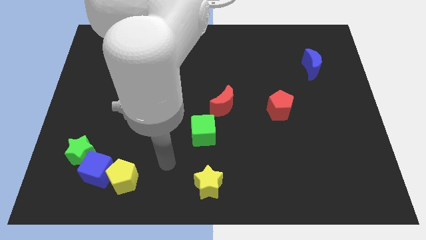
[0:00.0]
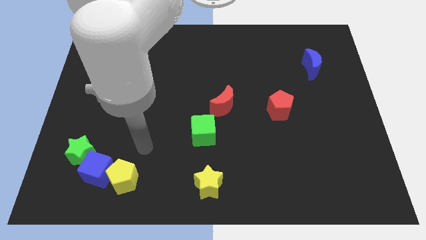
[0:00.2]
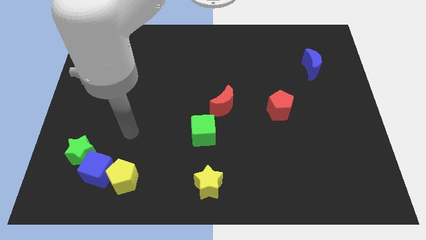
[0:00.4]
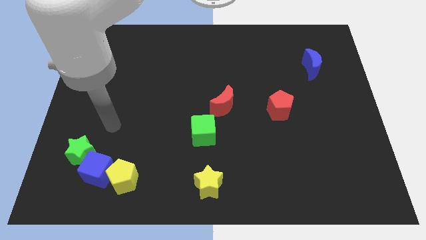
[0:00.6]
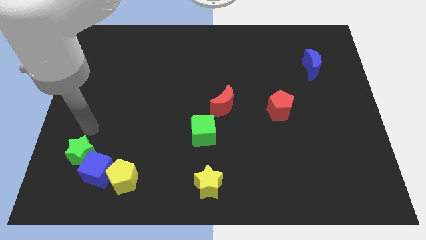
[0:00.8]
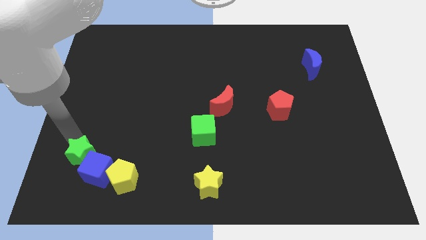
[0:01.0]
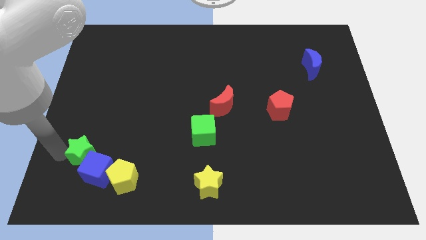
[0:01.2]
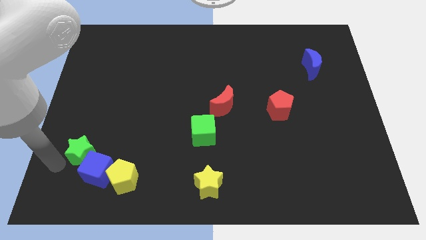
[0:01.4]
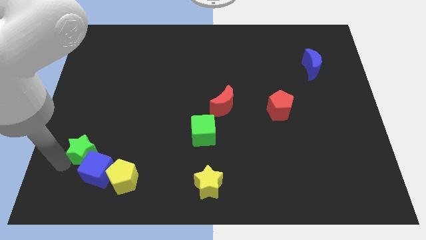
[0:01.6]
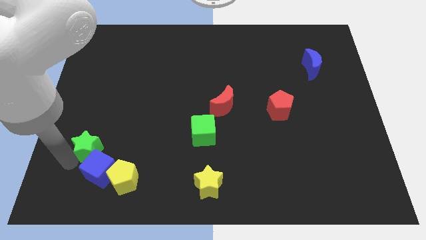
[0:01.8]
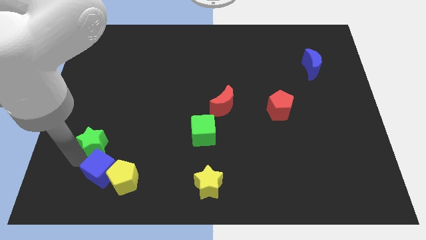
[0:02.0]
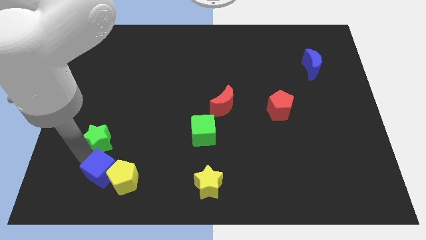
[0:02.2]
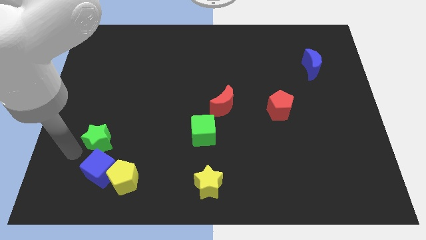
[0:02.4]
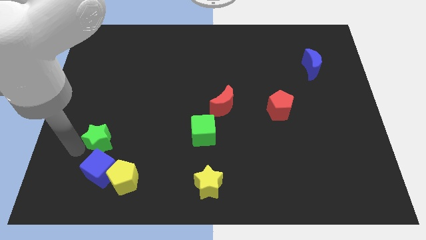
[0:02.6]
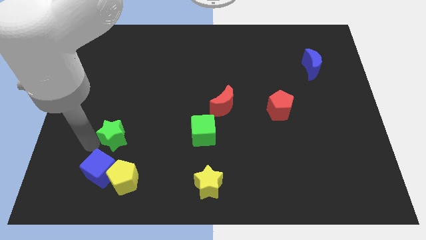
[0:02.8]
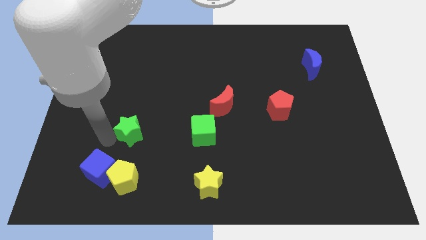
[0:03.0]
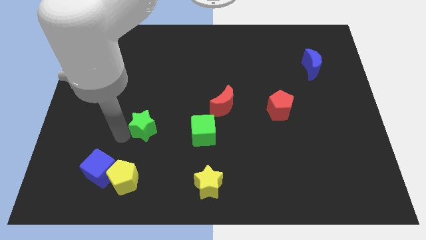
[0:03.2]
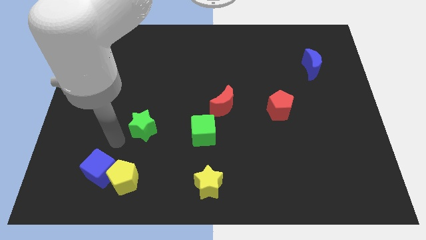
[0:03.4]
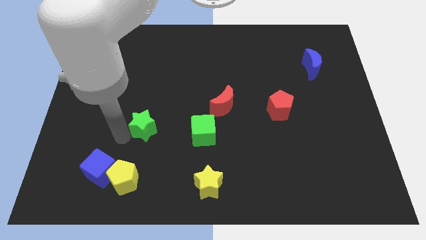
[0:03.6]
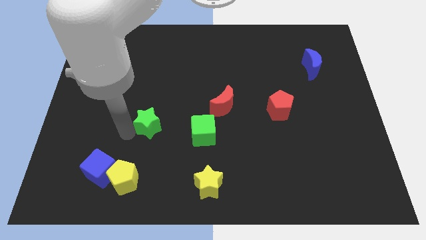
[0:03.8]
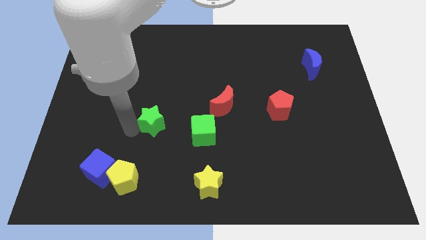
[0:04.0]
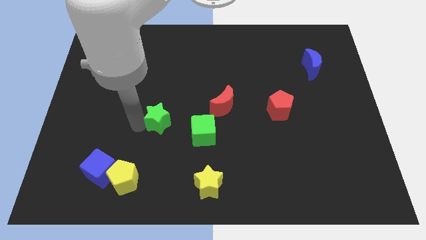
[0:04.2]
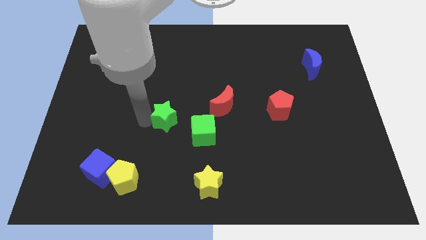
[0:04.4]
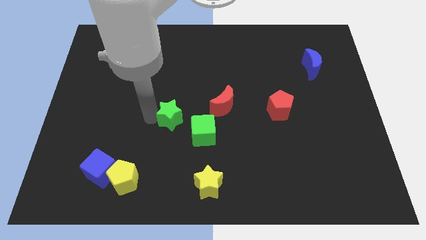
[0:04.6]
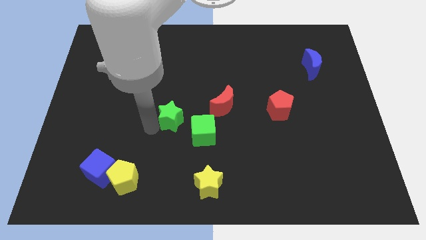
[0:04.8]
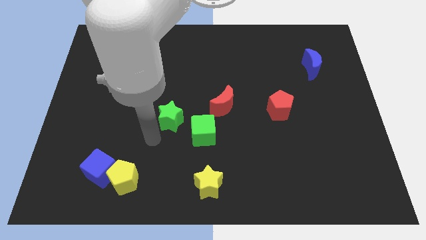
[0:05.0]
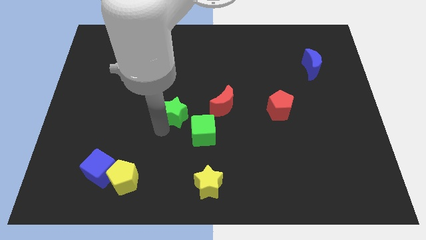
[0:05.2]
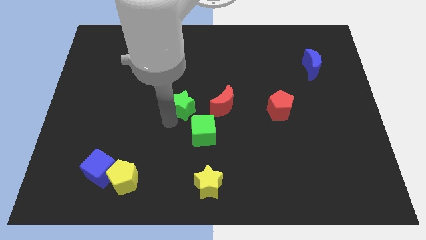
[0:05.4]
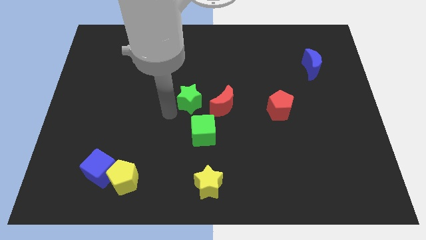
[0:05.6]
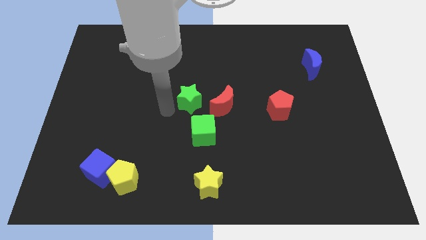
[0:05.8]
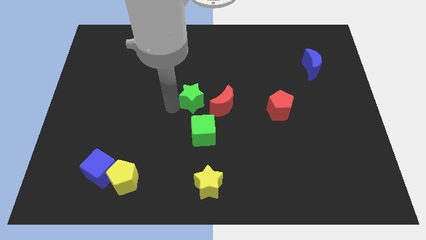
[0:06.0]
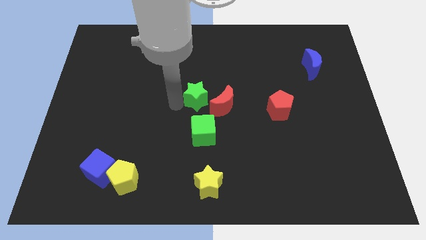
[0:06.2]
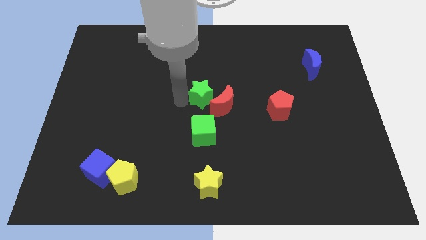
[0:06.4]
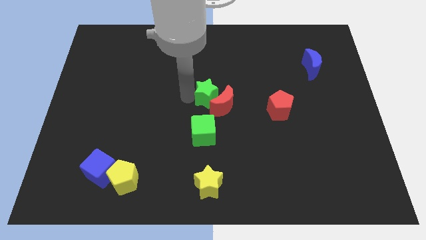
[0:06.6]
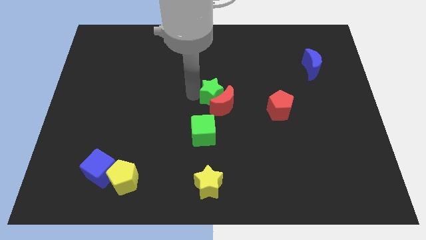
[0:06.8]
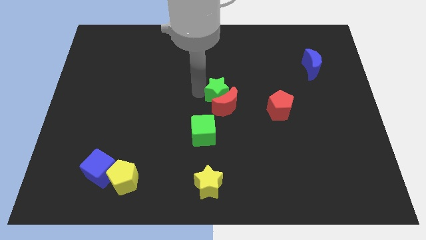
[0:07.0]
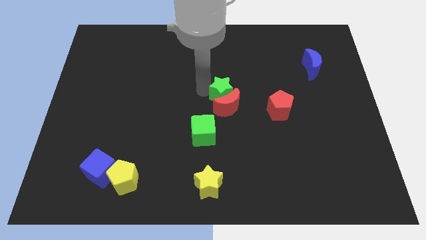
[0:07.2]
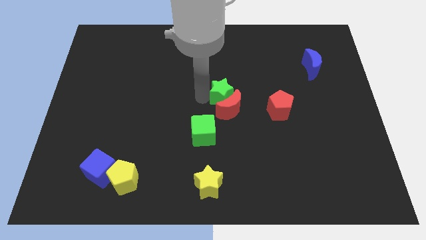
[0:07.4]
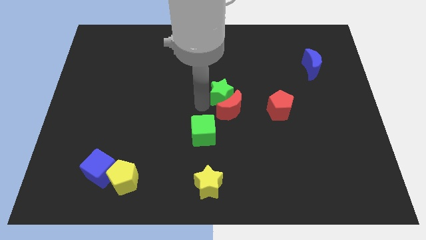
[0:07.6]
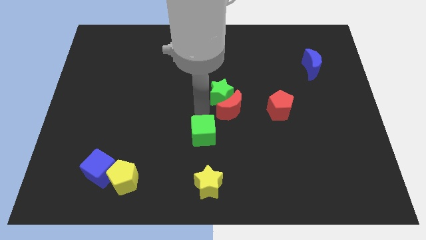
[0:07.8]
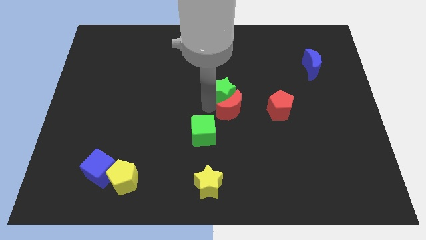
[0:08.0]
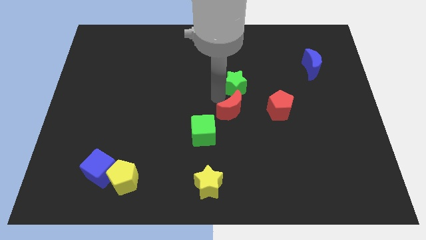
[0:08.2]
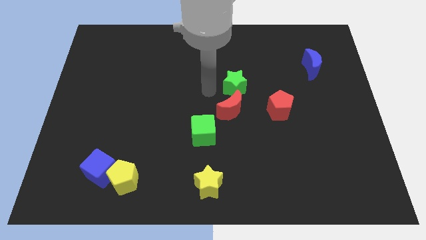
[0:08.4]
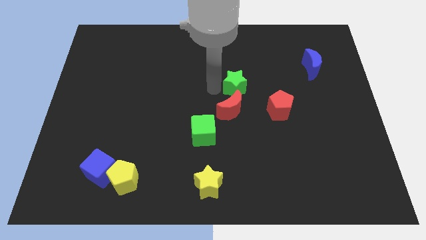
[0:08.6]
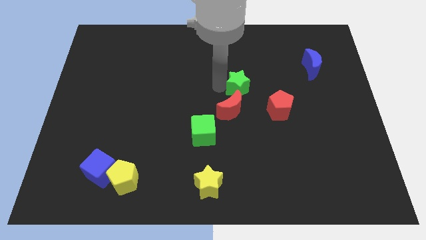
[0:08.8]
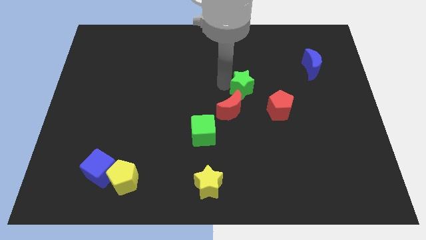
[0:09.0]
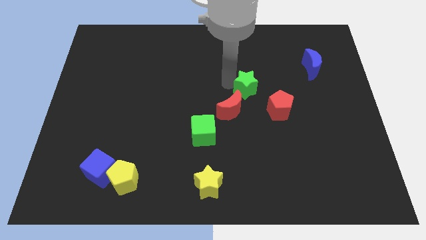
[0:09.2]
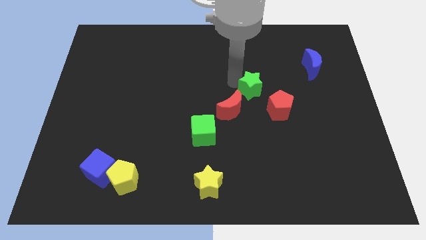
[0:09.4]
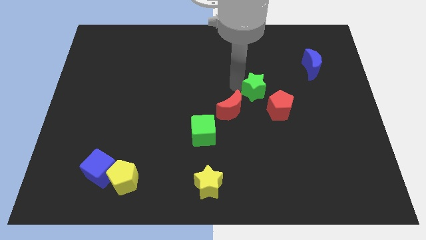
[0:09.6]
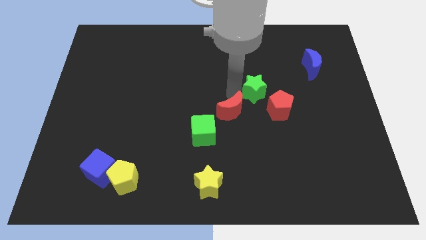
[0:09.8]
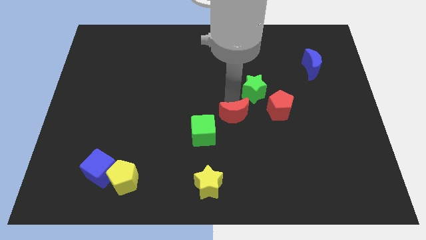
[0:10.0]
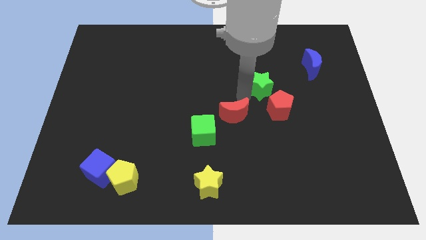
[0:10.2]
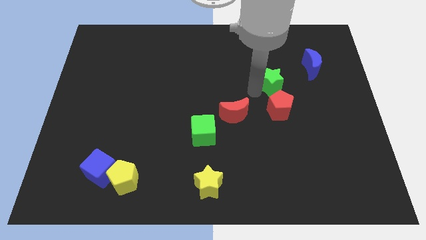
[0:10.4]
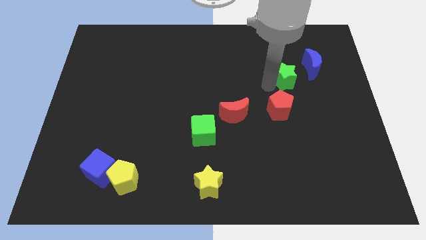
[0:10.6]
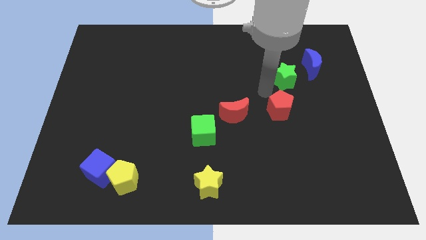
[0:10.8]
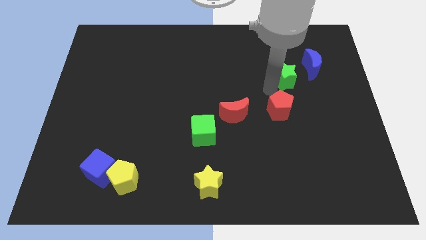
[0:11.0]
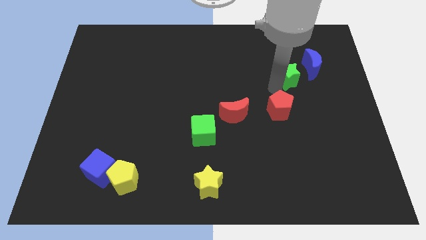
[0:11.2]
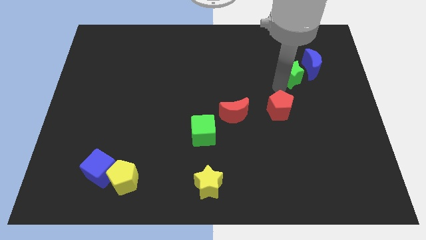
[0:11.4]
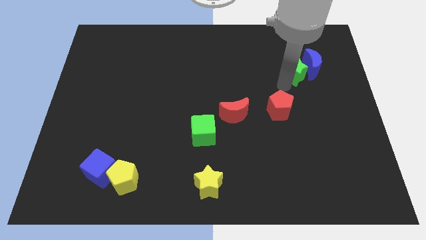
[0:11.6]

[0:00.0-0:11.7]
move the green star to the blue moon

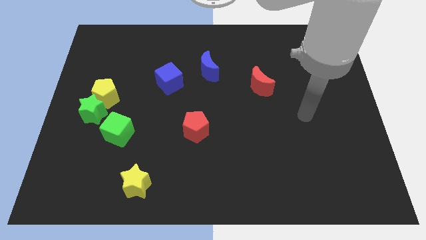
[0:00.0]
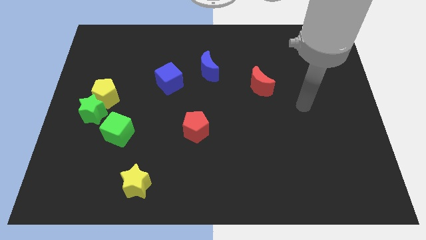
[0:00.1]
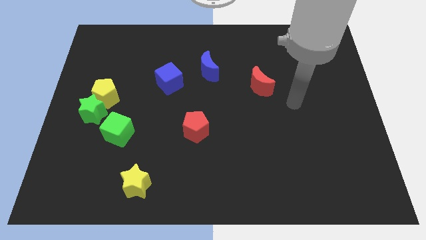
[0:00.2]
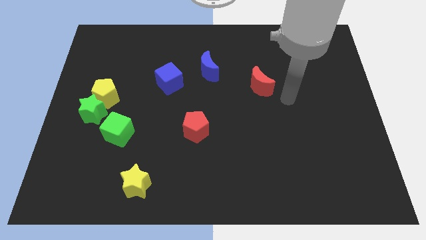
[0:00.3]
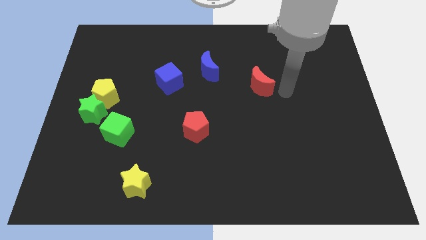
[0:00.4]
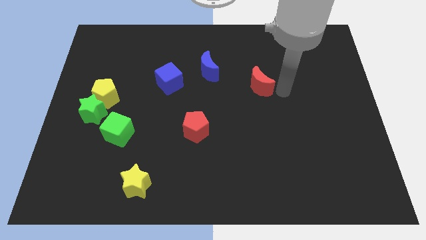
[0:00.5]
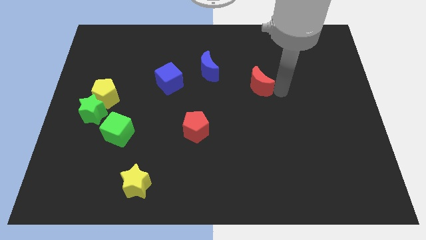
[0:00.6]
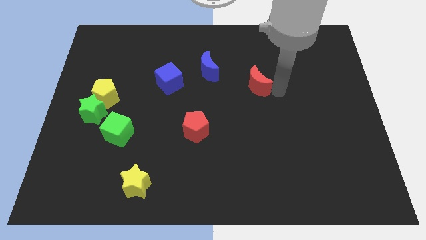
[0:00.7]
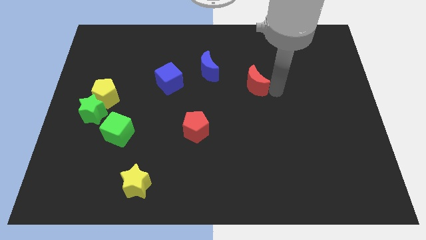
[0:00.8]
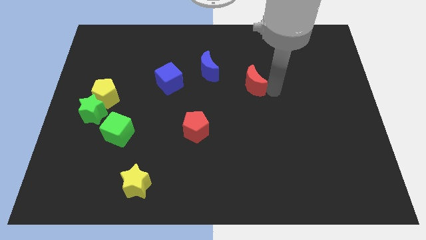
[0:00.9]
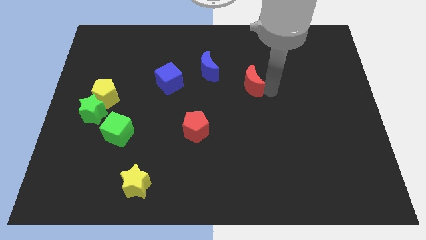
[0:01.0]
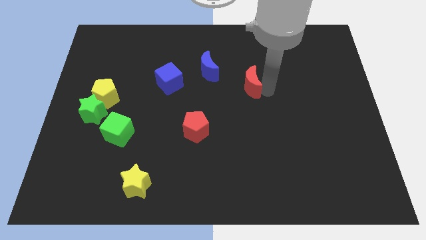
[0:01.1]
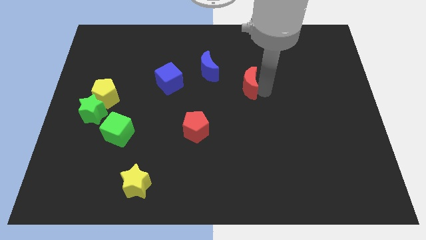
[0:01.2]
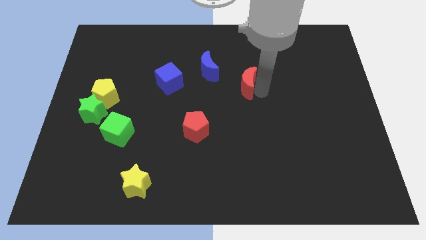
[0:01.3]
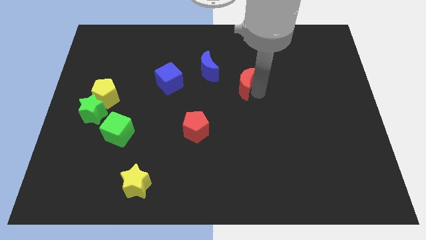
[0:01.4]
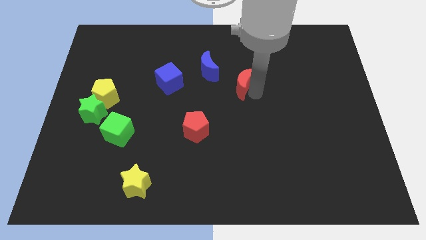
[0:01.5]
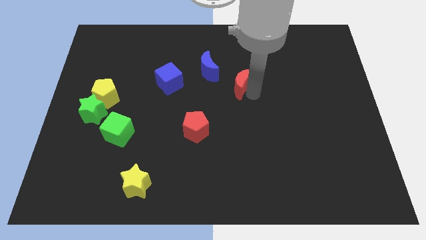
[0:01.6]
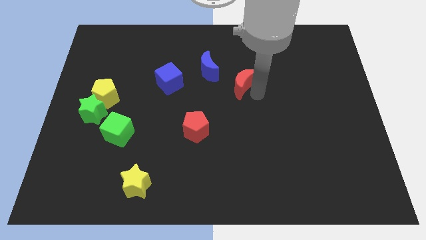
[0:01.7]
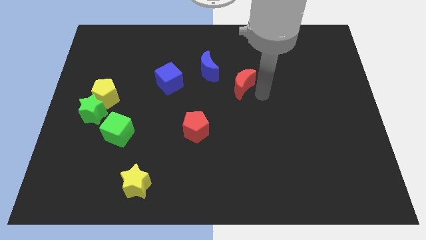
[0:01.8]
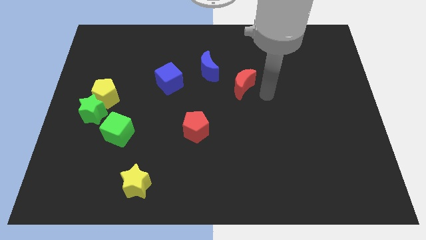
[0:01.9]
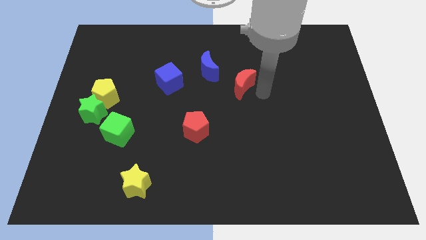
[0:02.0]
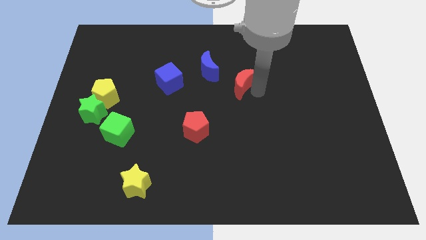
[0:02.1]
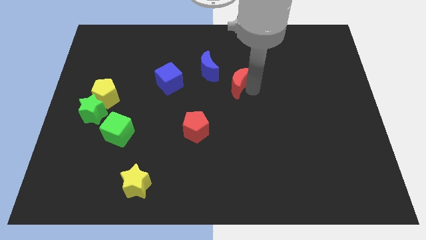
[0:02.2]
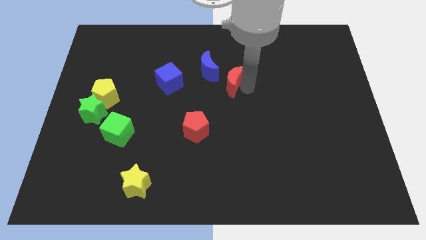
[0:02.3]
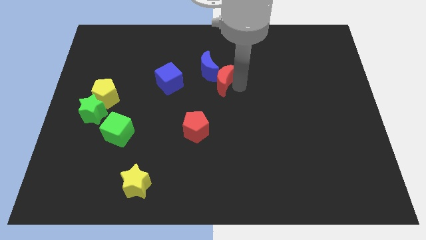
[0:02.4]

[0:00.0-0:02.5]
push the red moon to the blue moon
